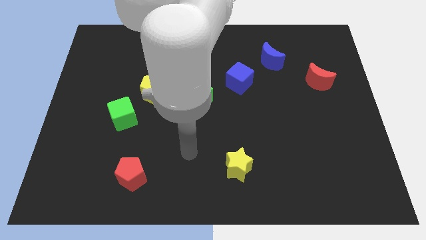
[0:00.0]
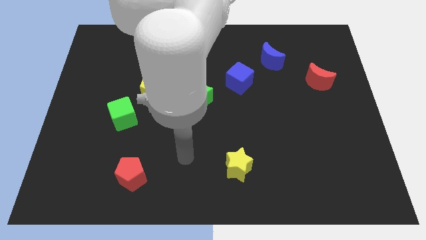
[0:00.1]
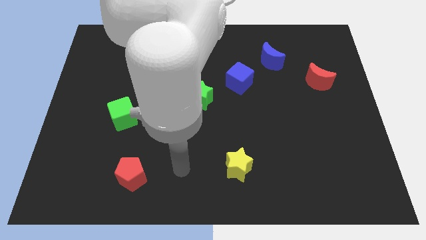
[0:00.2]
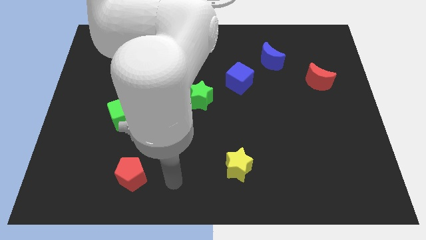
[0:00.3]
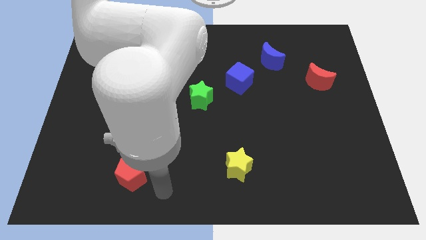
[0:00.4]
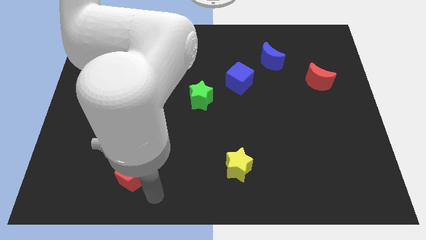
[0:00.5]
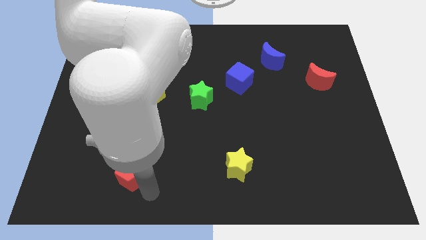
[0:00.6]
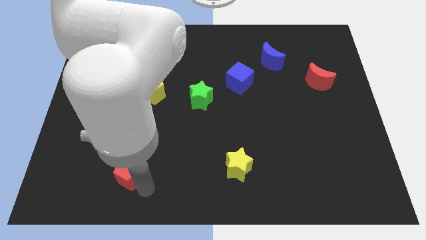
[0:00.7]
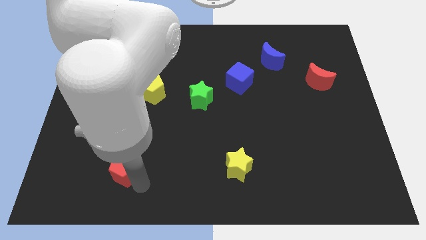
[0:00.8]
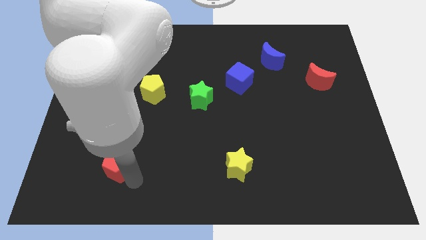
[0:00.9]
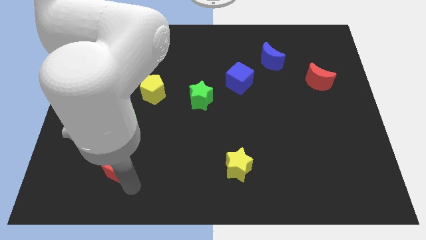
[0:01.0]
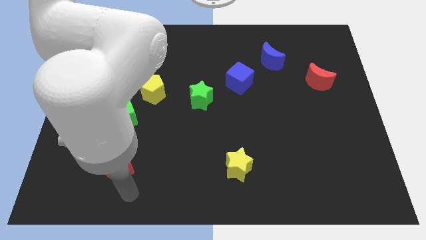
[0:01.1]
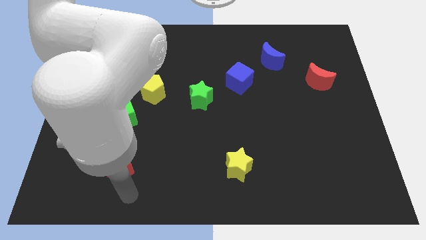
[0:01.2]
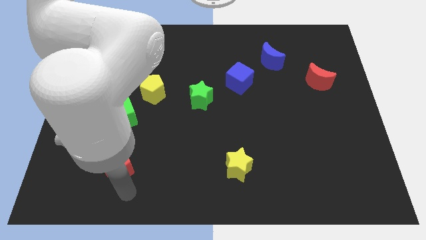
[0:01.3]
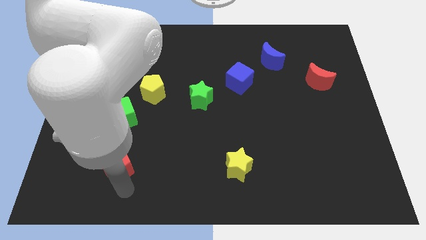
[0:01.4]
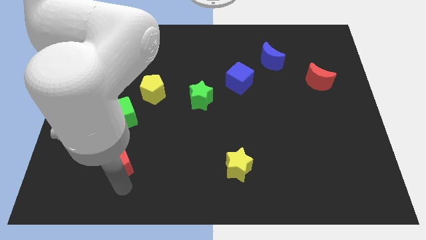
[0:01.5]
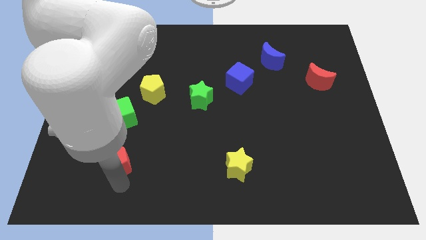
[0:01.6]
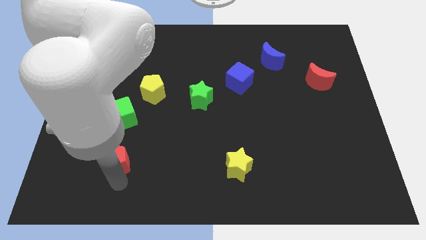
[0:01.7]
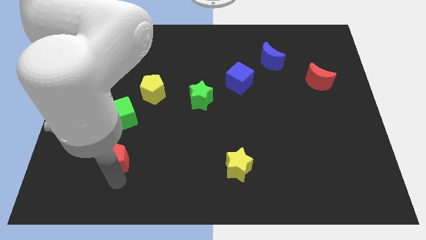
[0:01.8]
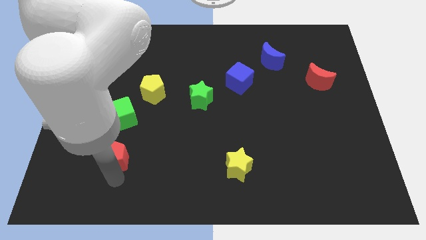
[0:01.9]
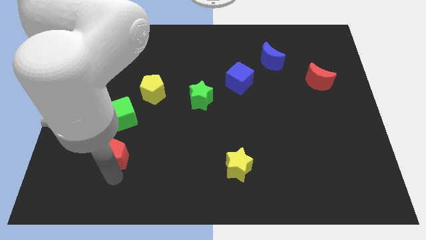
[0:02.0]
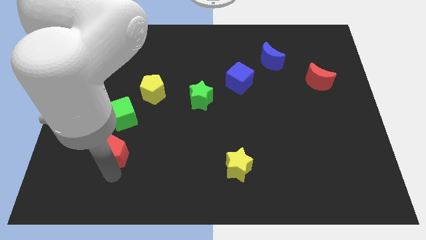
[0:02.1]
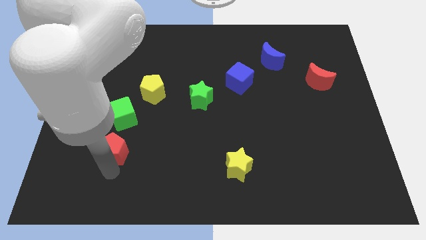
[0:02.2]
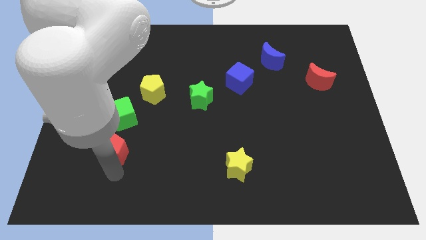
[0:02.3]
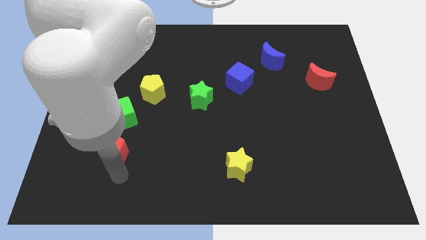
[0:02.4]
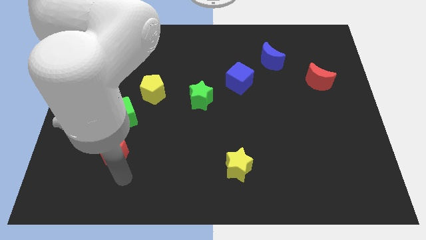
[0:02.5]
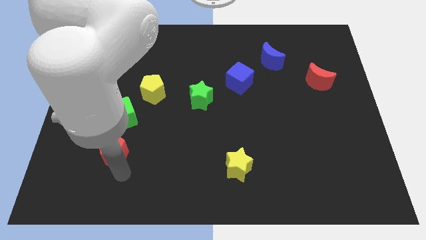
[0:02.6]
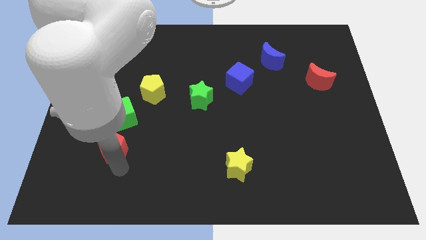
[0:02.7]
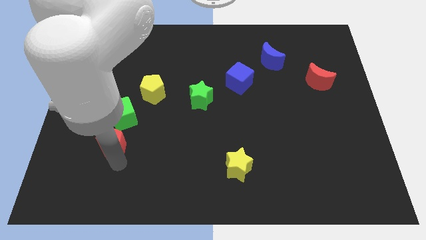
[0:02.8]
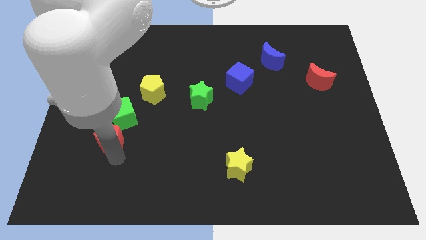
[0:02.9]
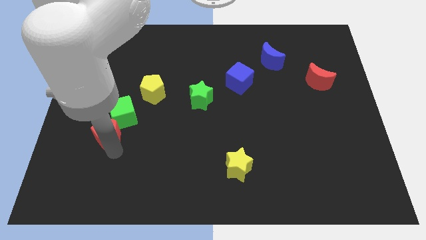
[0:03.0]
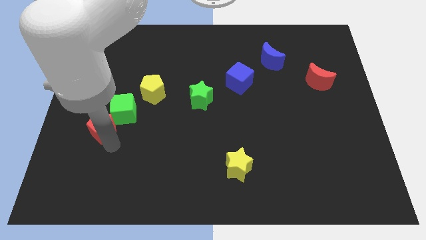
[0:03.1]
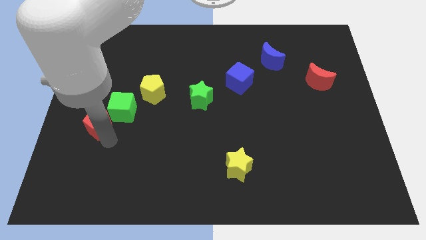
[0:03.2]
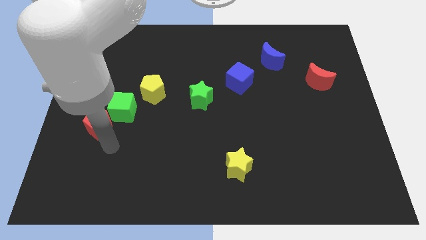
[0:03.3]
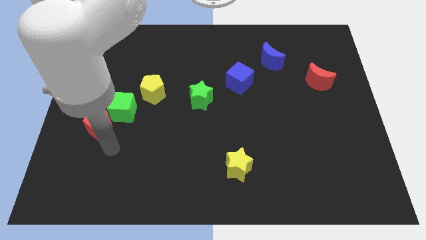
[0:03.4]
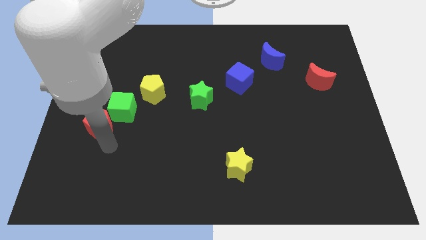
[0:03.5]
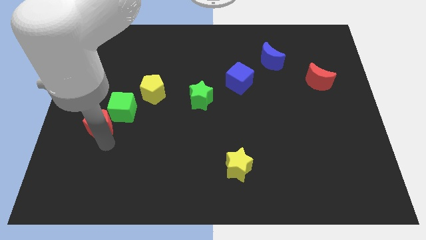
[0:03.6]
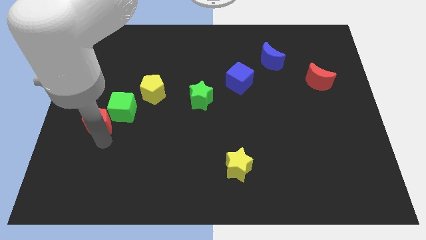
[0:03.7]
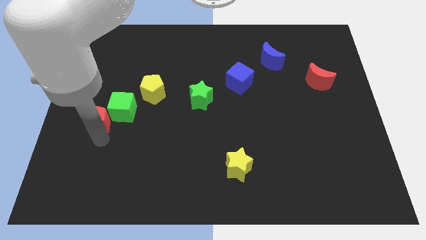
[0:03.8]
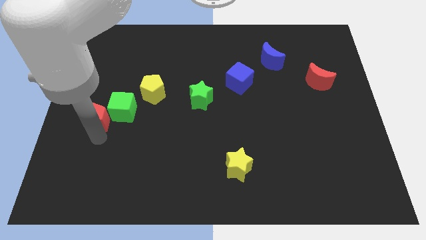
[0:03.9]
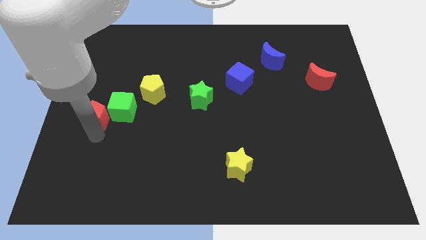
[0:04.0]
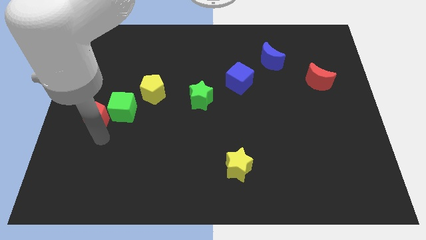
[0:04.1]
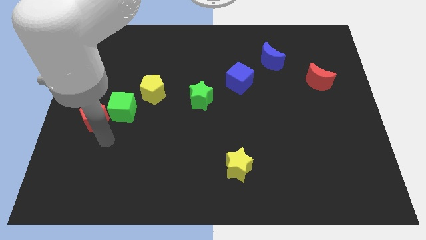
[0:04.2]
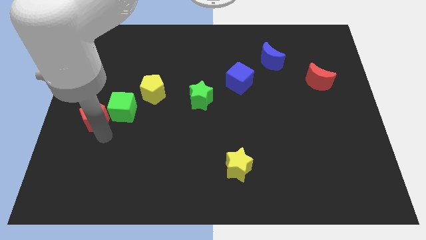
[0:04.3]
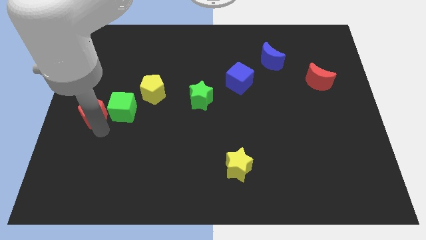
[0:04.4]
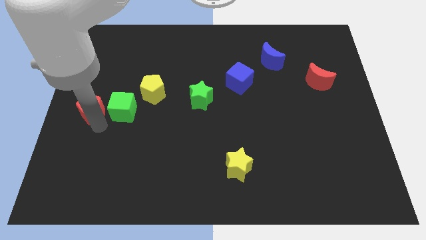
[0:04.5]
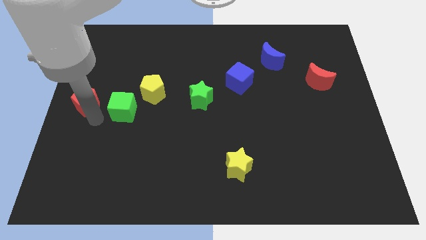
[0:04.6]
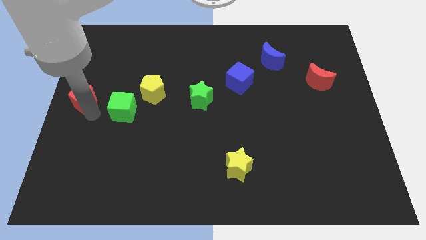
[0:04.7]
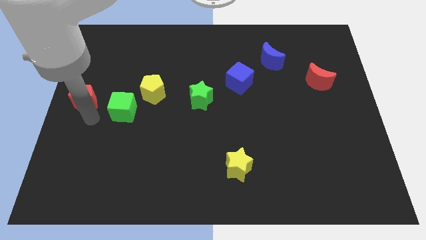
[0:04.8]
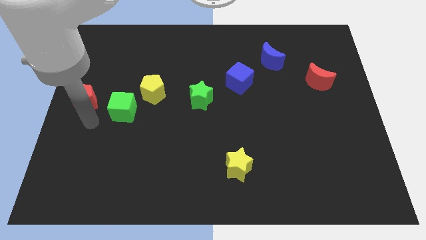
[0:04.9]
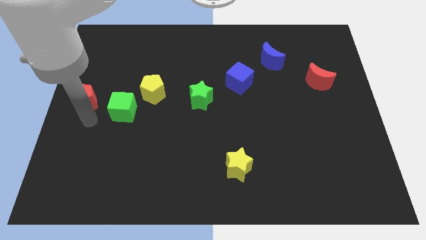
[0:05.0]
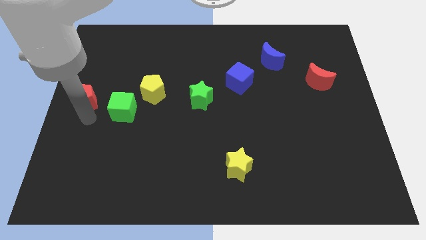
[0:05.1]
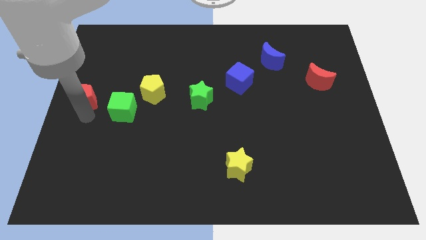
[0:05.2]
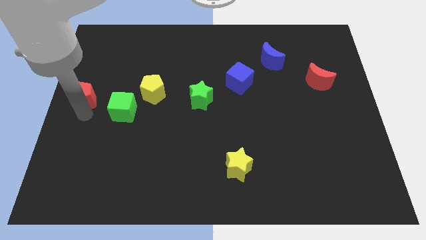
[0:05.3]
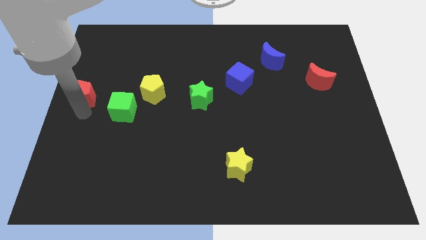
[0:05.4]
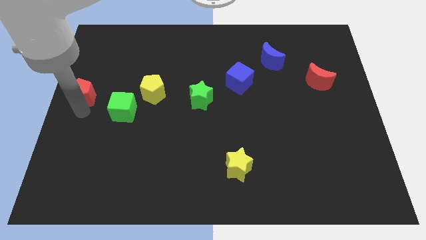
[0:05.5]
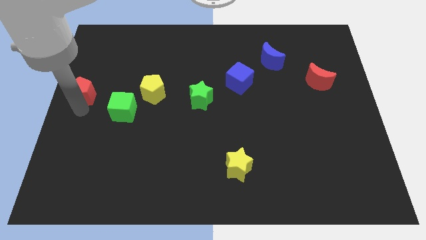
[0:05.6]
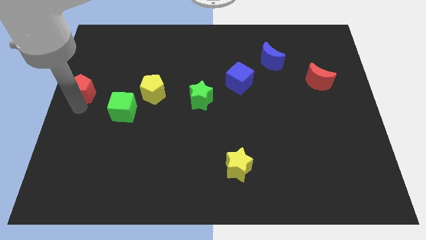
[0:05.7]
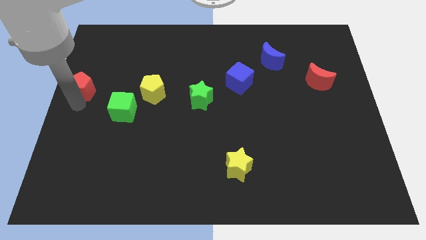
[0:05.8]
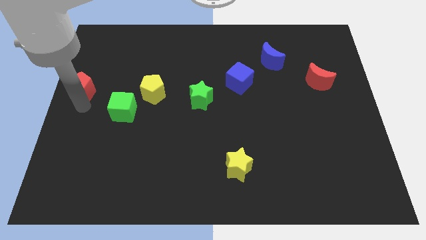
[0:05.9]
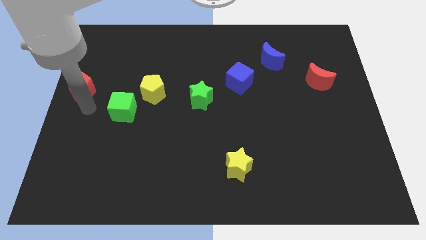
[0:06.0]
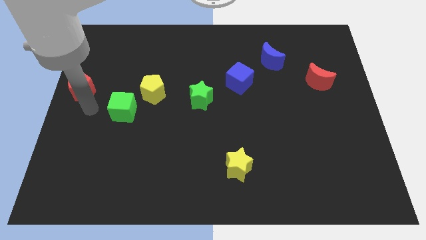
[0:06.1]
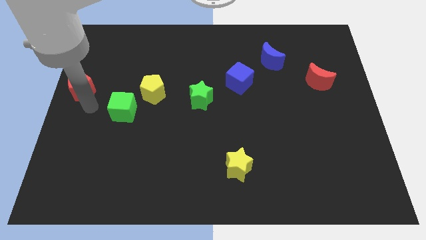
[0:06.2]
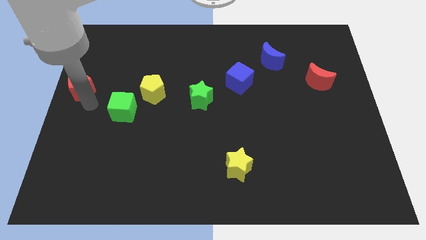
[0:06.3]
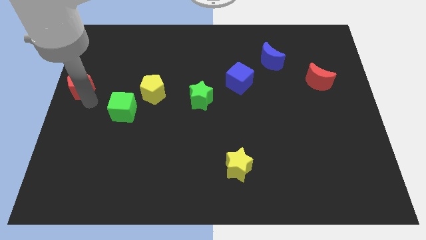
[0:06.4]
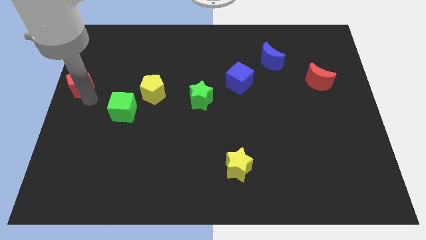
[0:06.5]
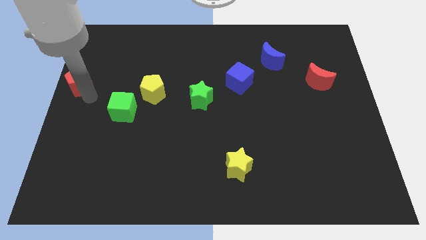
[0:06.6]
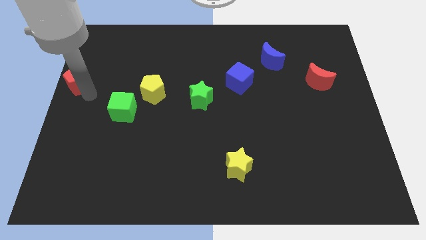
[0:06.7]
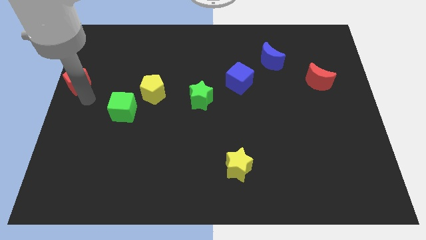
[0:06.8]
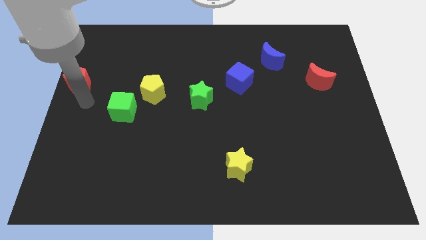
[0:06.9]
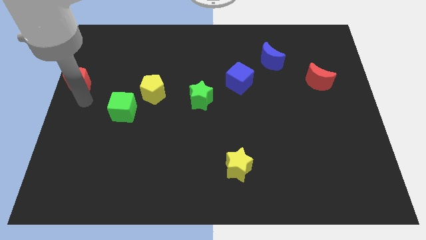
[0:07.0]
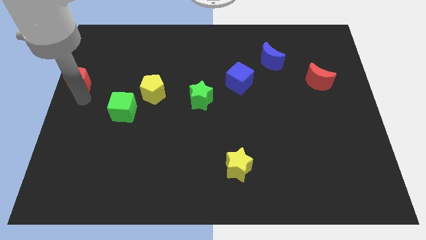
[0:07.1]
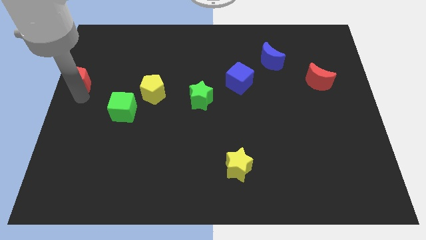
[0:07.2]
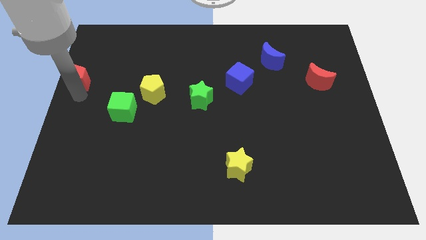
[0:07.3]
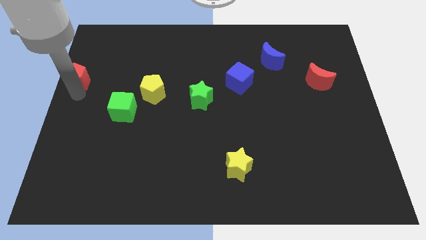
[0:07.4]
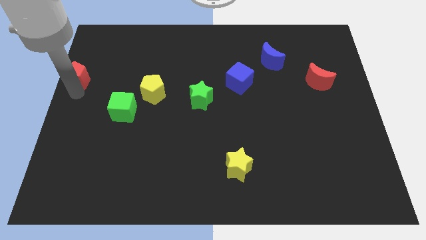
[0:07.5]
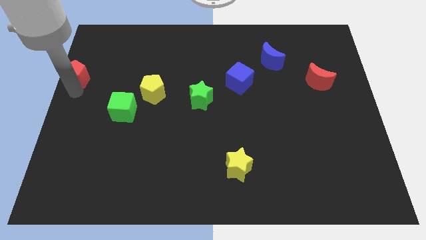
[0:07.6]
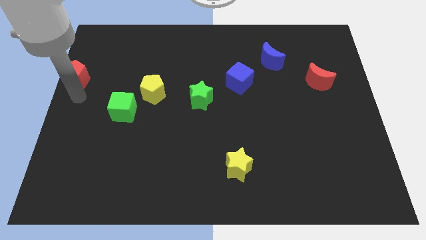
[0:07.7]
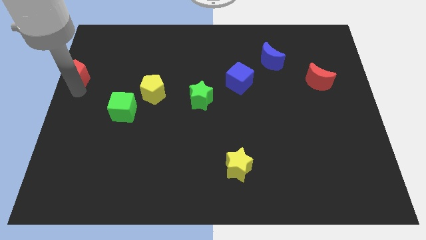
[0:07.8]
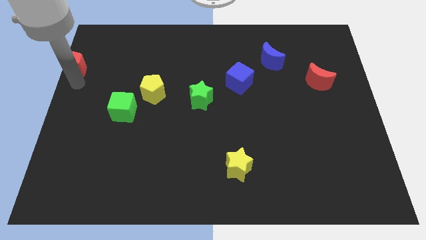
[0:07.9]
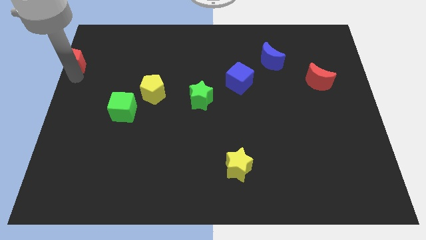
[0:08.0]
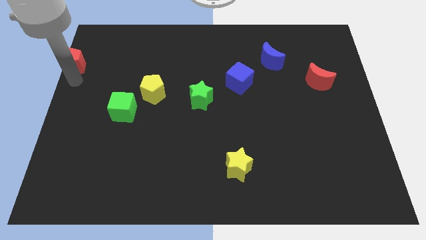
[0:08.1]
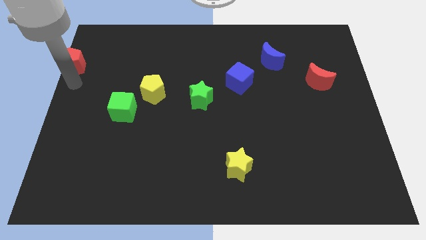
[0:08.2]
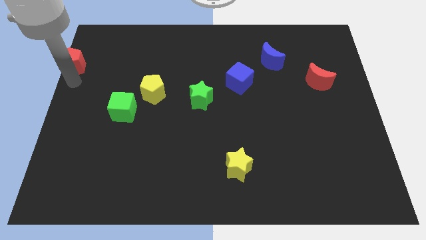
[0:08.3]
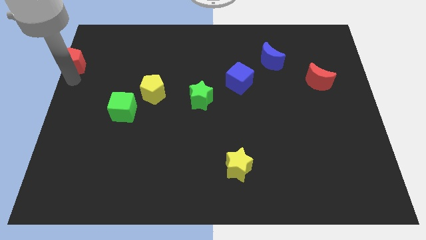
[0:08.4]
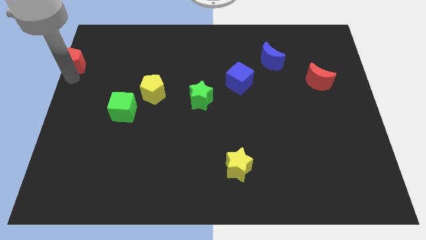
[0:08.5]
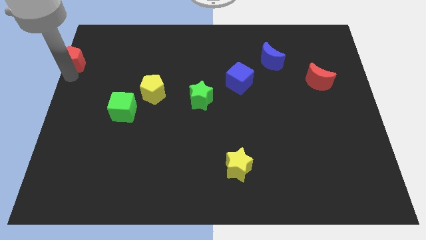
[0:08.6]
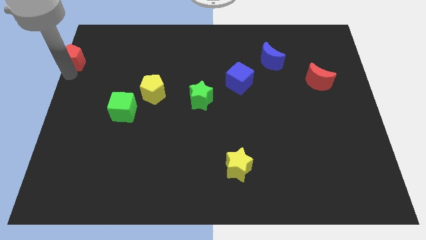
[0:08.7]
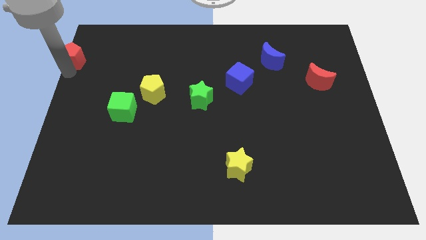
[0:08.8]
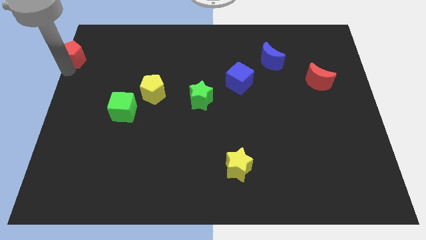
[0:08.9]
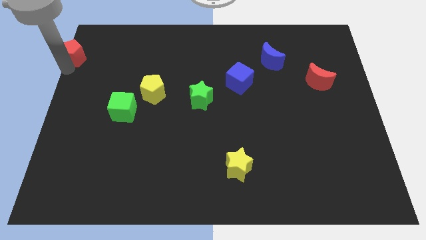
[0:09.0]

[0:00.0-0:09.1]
move the red pentagon to the top left of the board
